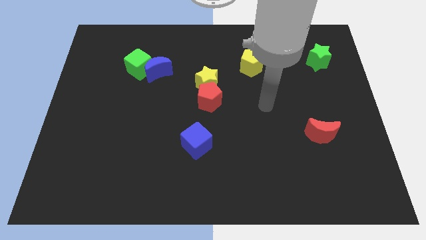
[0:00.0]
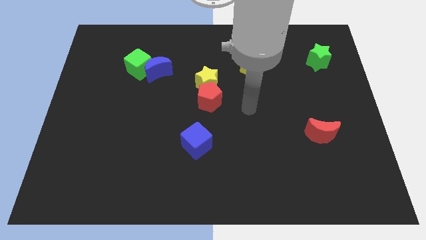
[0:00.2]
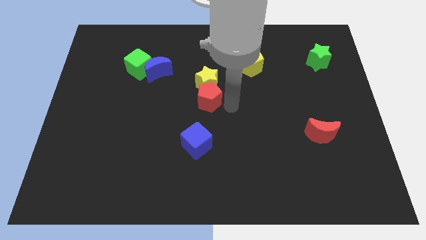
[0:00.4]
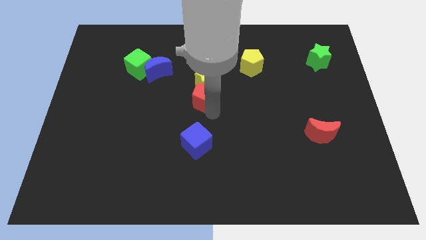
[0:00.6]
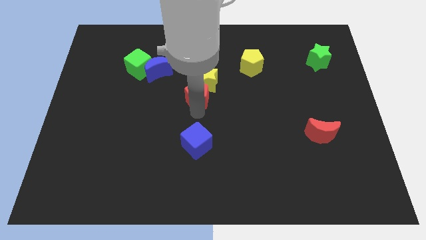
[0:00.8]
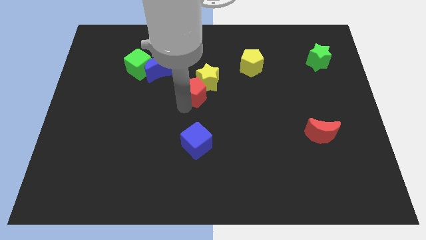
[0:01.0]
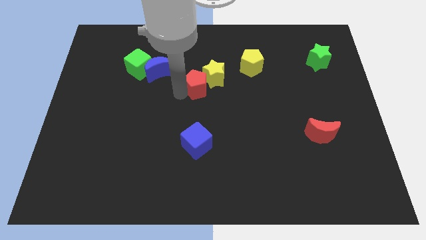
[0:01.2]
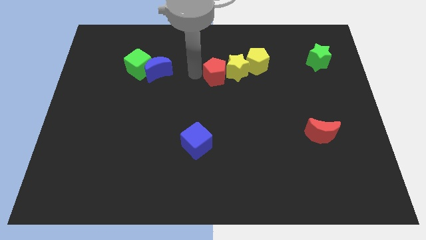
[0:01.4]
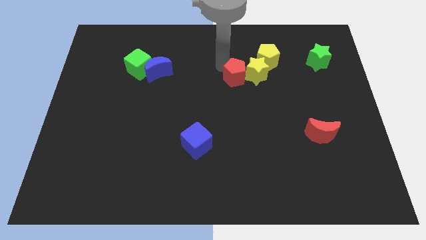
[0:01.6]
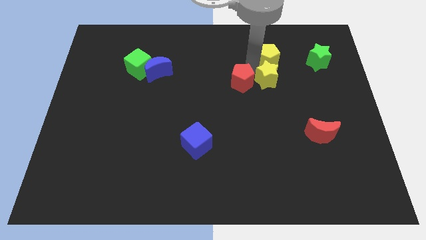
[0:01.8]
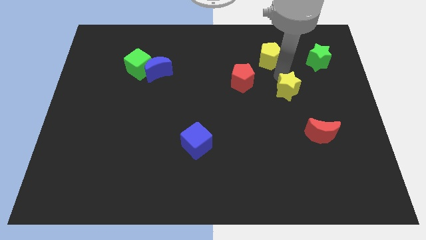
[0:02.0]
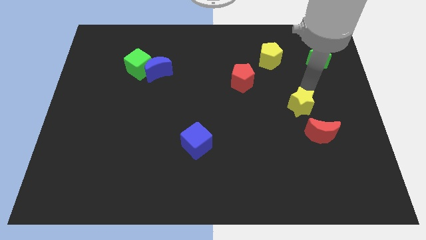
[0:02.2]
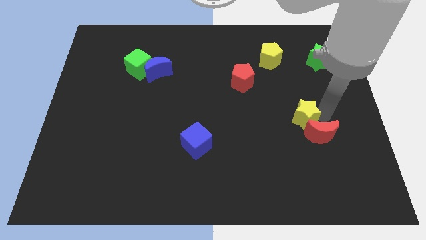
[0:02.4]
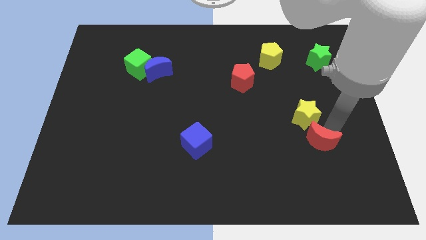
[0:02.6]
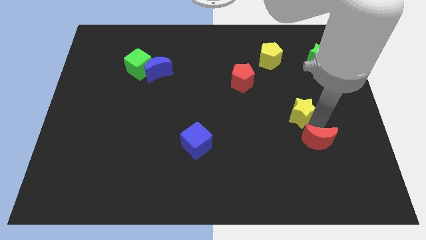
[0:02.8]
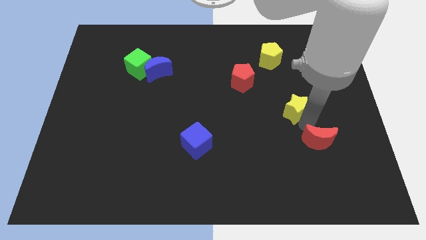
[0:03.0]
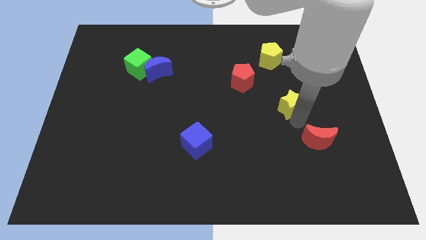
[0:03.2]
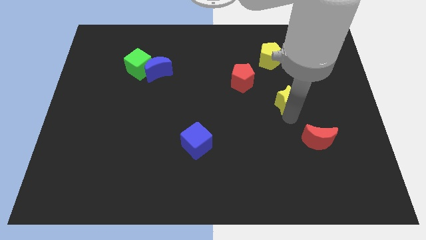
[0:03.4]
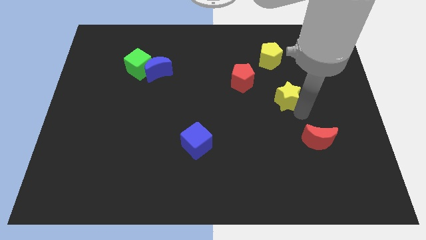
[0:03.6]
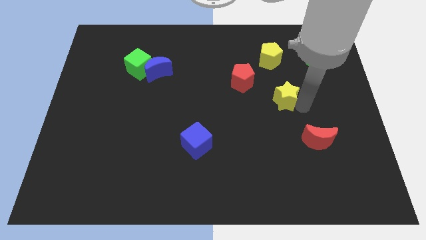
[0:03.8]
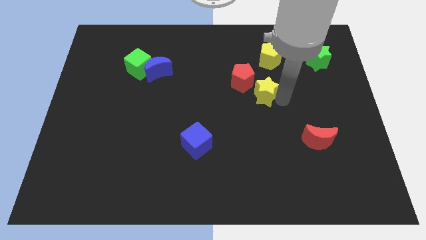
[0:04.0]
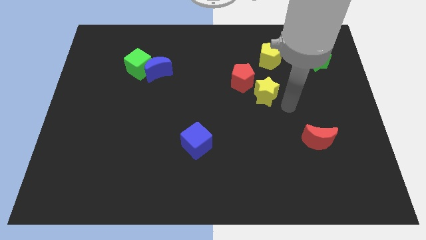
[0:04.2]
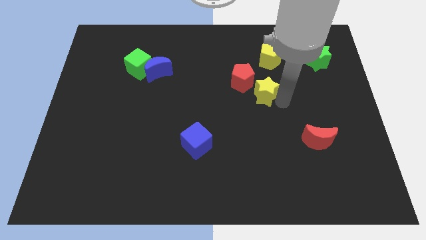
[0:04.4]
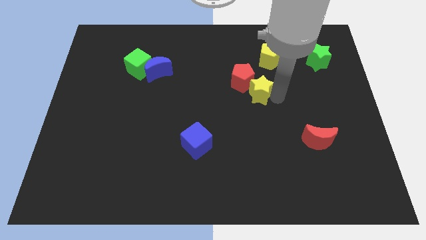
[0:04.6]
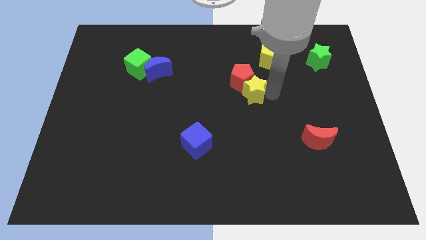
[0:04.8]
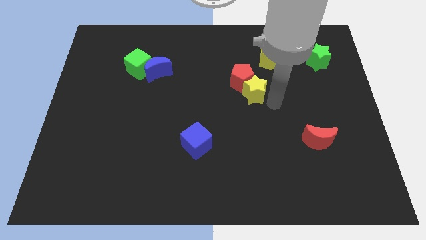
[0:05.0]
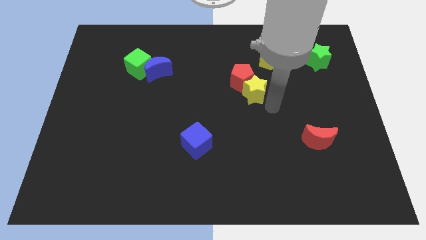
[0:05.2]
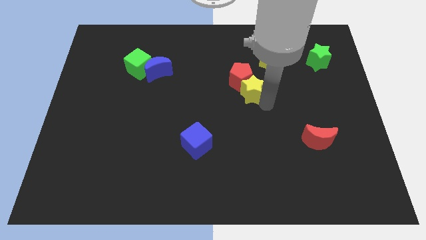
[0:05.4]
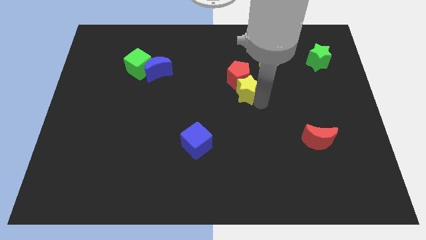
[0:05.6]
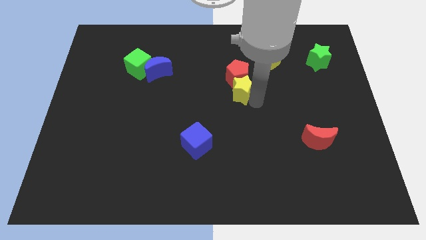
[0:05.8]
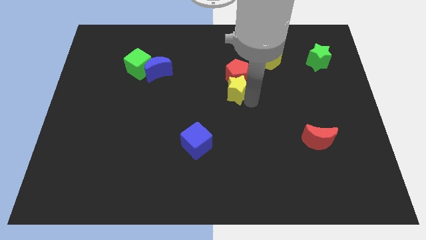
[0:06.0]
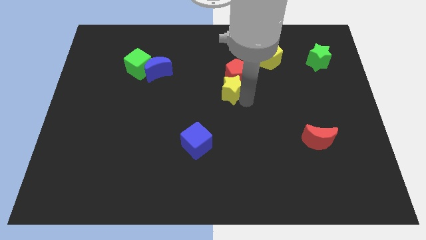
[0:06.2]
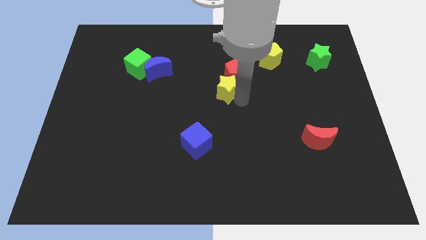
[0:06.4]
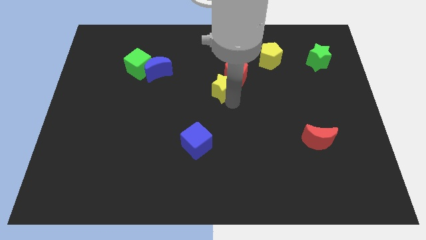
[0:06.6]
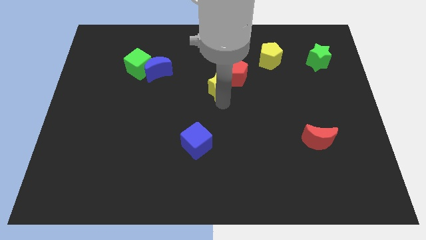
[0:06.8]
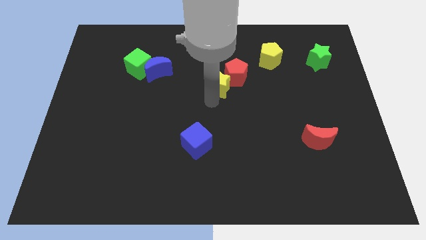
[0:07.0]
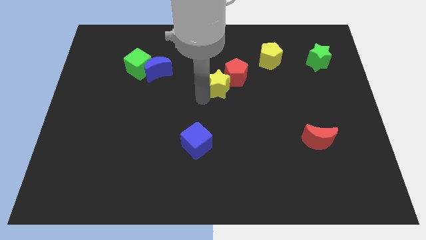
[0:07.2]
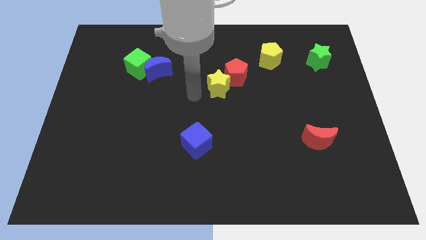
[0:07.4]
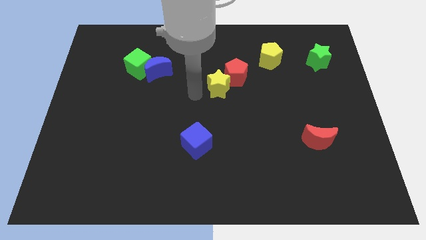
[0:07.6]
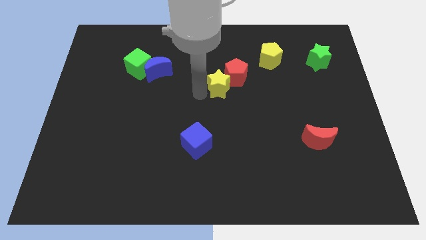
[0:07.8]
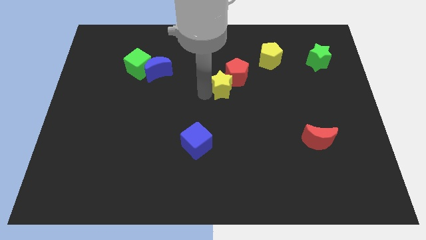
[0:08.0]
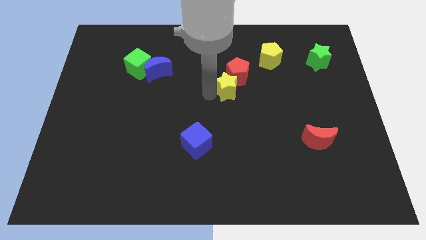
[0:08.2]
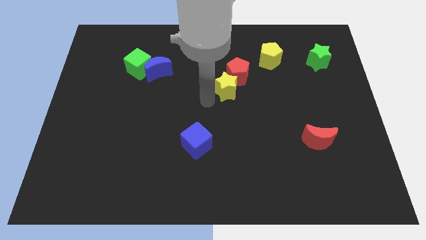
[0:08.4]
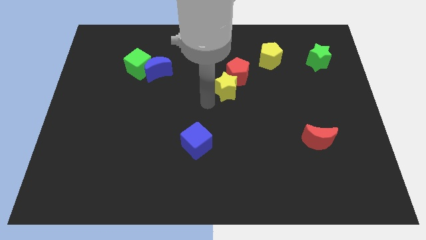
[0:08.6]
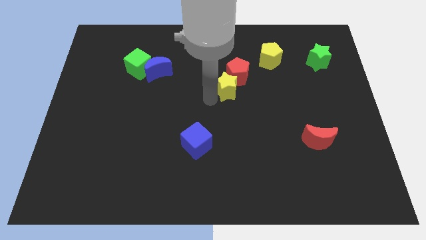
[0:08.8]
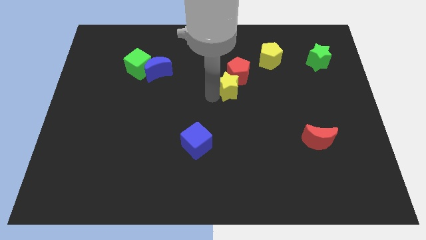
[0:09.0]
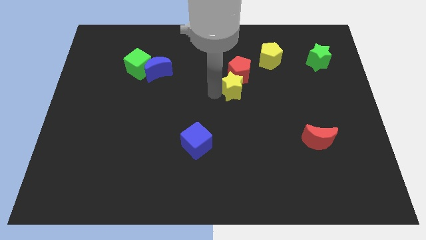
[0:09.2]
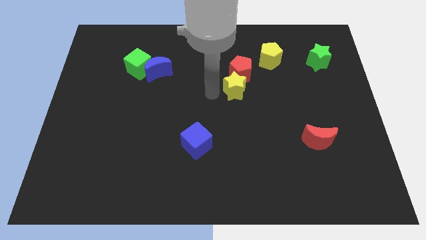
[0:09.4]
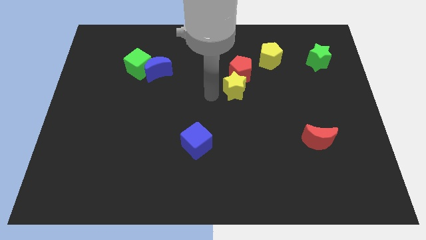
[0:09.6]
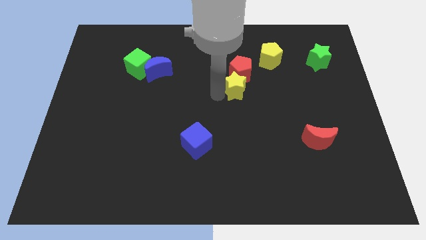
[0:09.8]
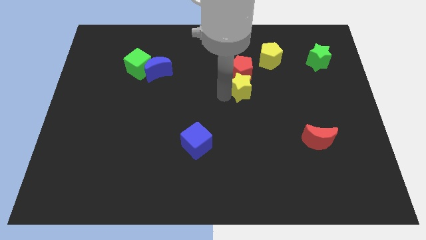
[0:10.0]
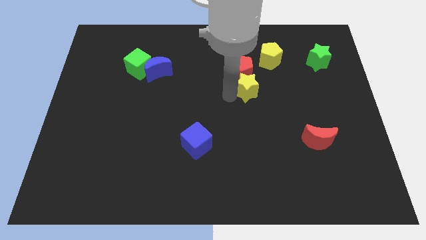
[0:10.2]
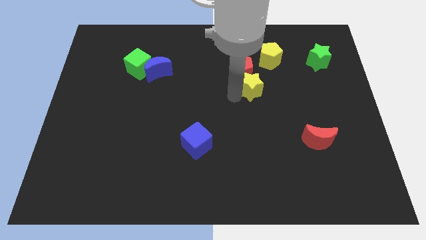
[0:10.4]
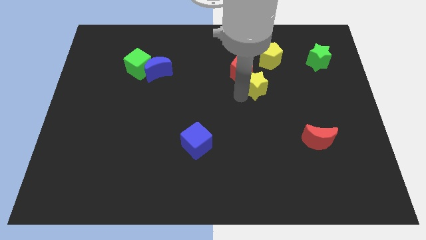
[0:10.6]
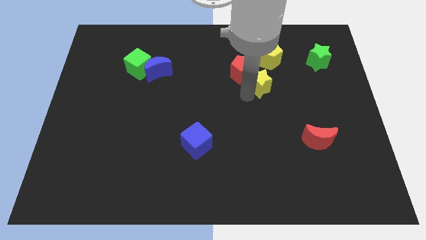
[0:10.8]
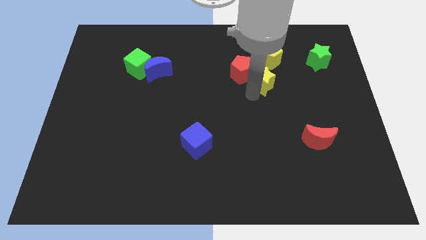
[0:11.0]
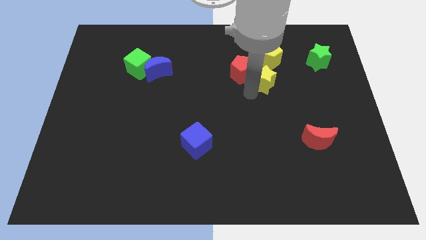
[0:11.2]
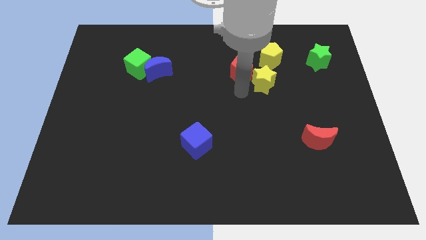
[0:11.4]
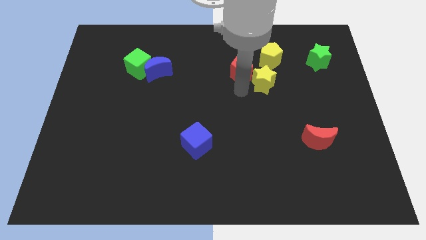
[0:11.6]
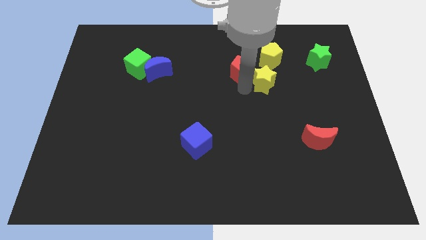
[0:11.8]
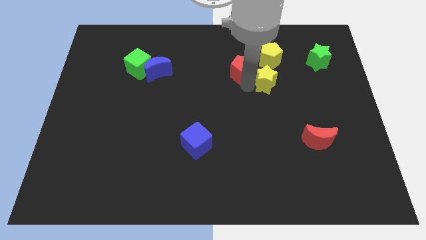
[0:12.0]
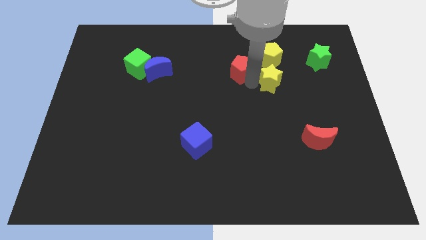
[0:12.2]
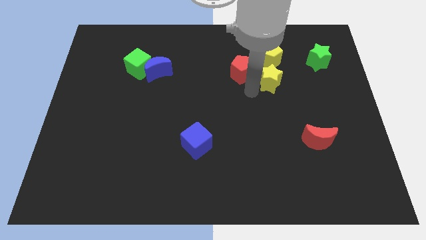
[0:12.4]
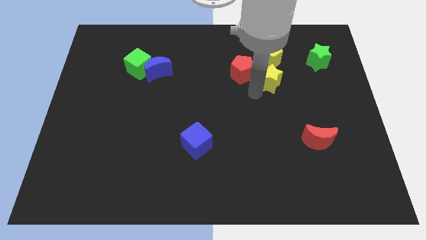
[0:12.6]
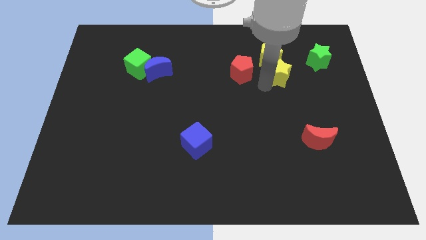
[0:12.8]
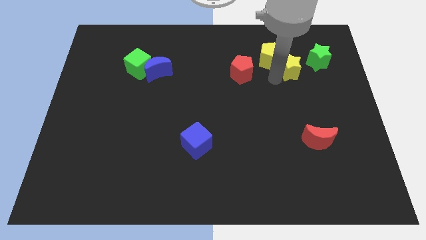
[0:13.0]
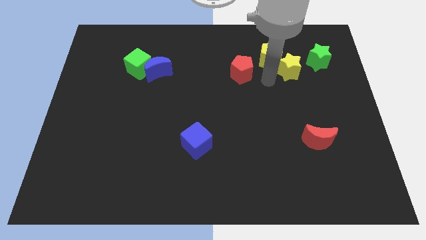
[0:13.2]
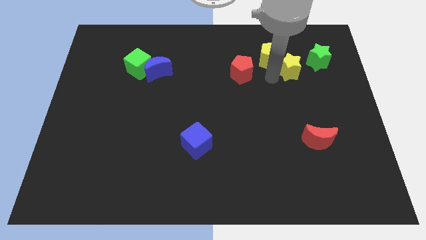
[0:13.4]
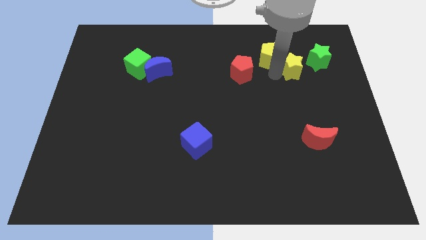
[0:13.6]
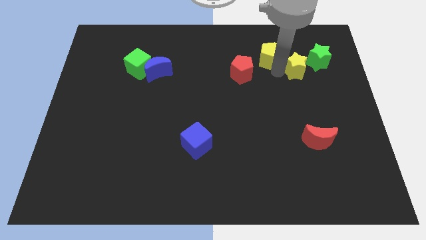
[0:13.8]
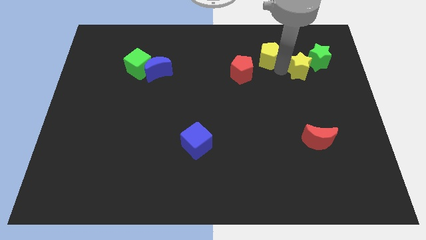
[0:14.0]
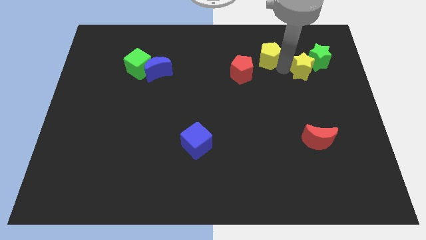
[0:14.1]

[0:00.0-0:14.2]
push the yellow star to the green star

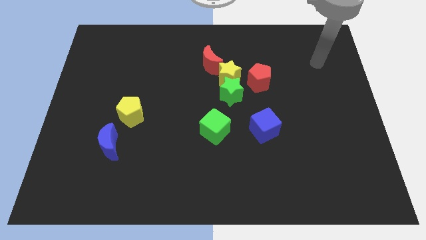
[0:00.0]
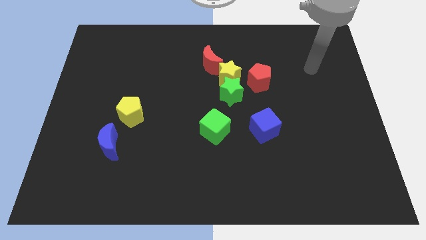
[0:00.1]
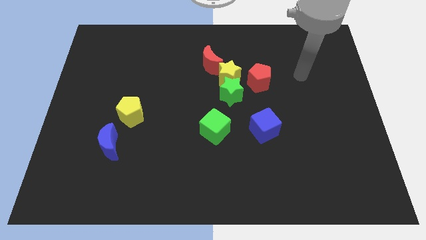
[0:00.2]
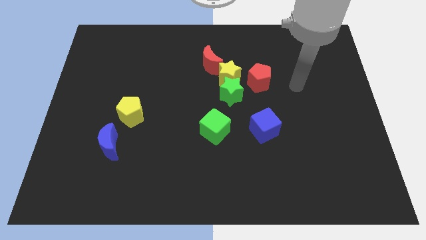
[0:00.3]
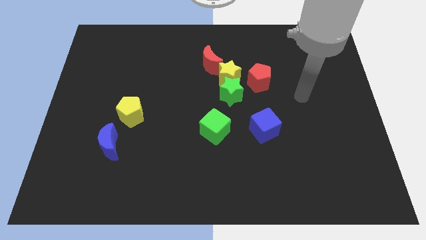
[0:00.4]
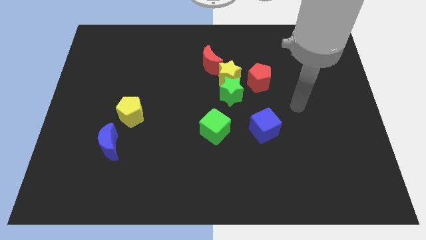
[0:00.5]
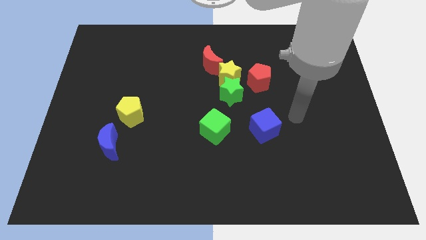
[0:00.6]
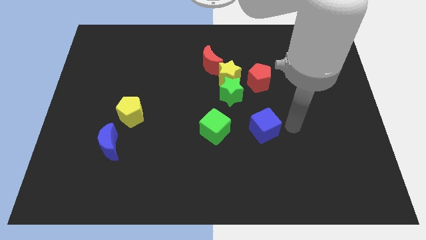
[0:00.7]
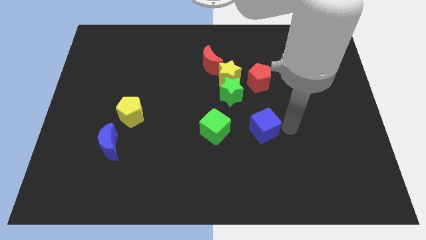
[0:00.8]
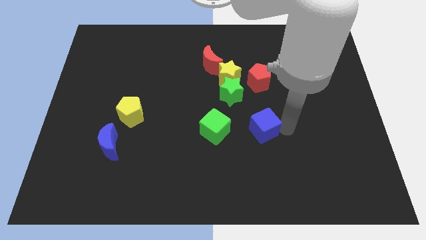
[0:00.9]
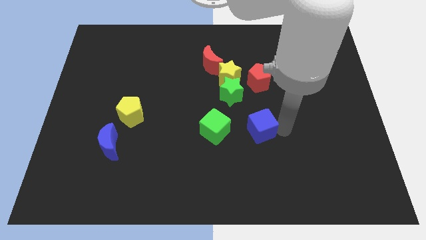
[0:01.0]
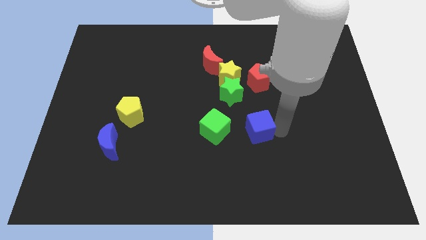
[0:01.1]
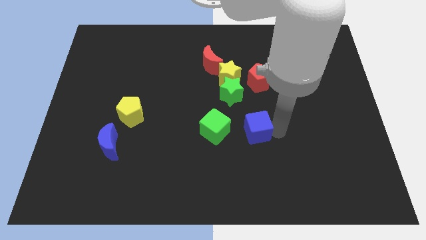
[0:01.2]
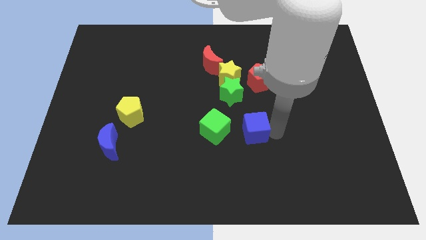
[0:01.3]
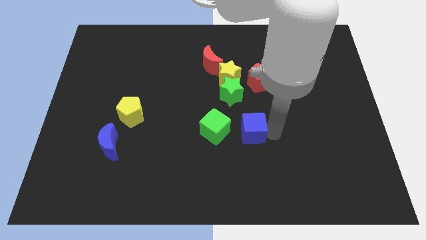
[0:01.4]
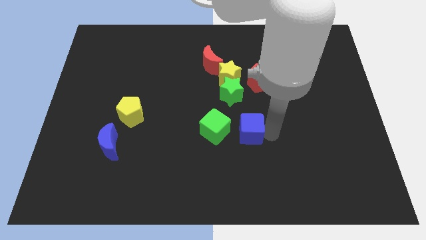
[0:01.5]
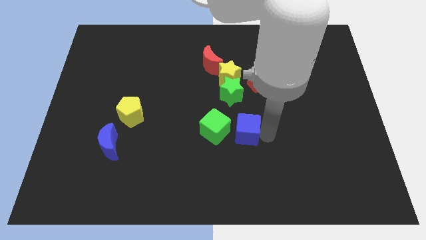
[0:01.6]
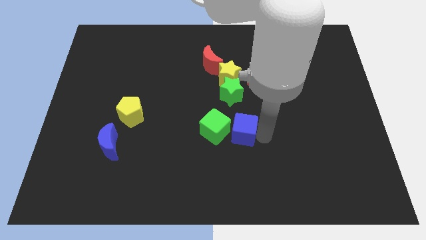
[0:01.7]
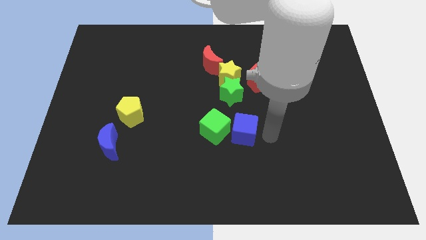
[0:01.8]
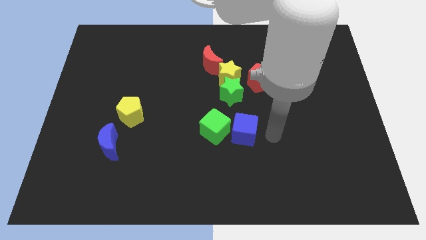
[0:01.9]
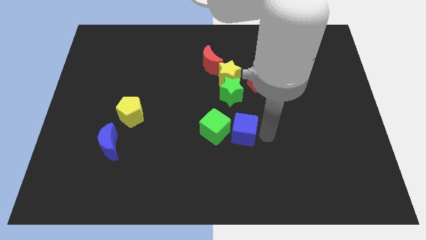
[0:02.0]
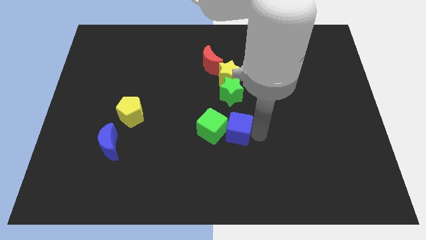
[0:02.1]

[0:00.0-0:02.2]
push the blue cube to the green cube
